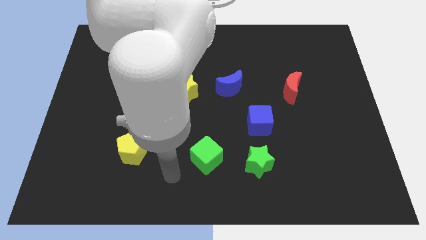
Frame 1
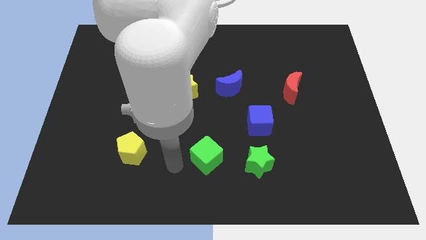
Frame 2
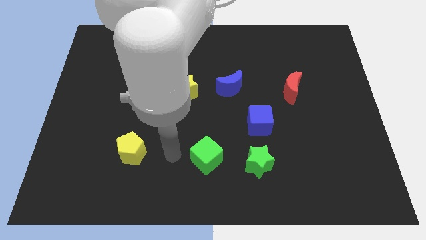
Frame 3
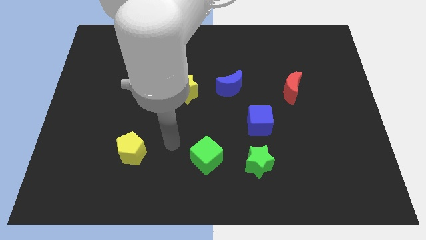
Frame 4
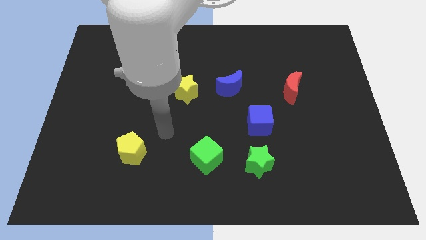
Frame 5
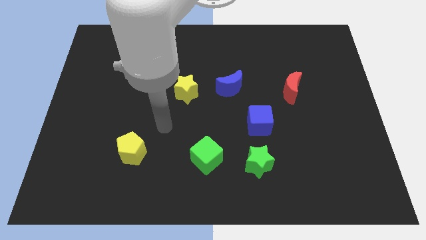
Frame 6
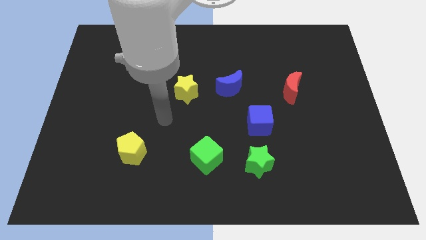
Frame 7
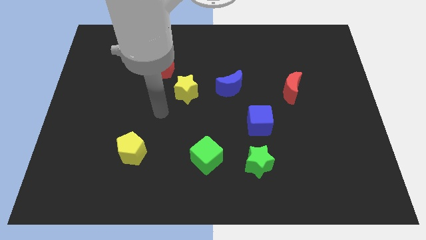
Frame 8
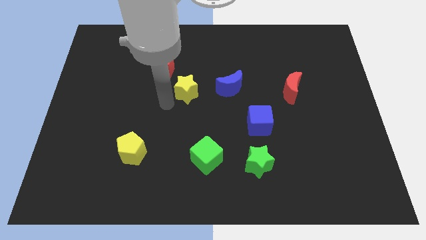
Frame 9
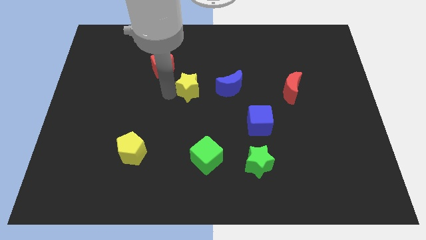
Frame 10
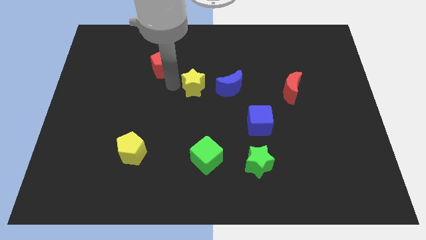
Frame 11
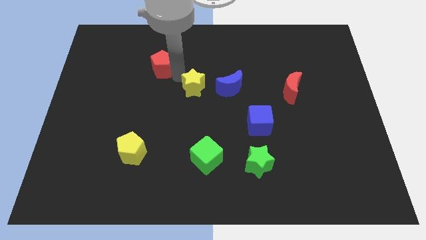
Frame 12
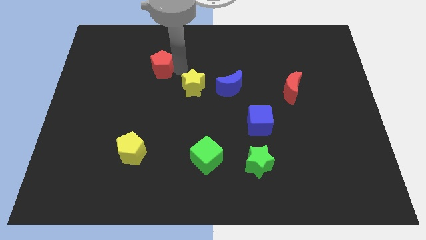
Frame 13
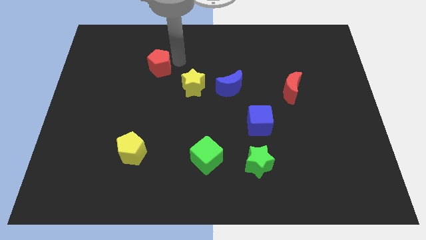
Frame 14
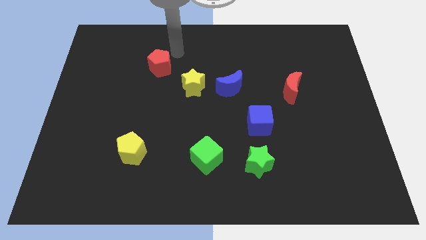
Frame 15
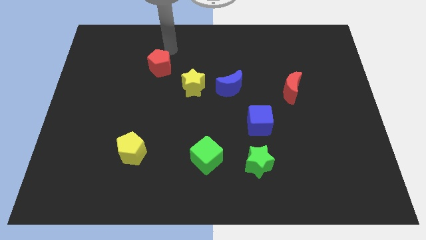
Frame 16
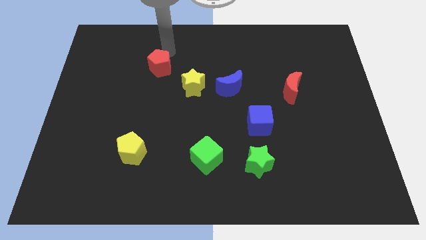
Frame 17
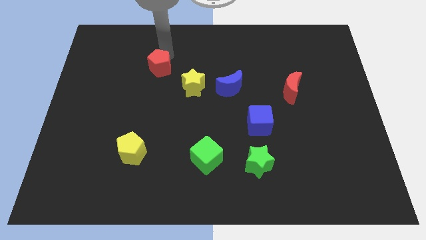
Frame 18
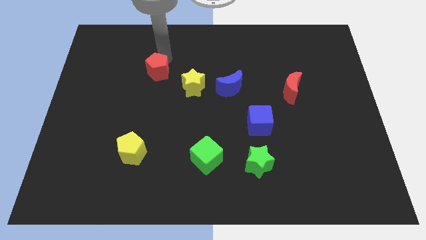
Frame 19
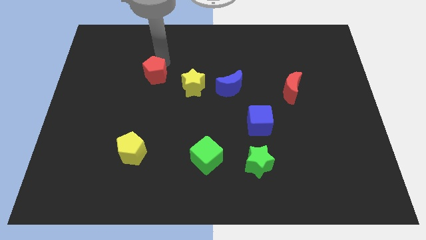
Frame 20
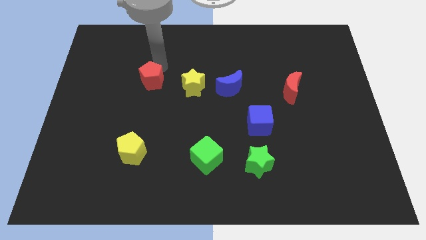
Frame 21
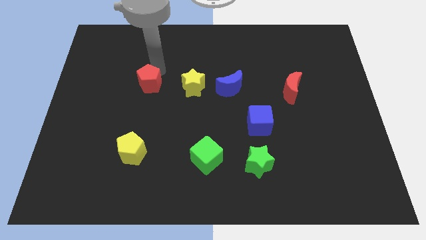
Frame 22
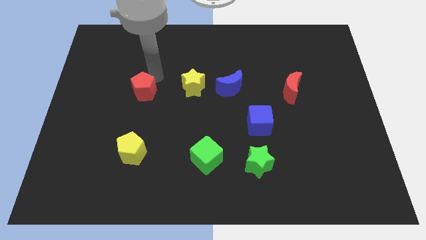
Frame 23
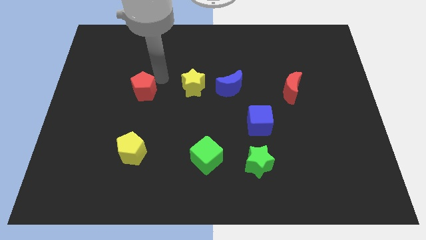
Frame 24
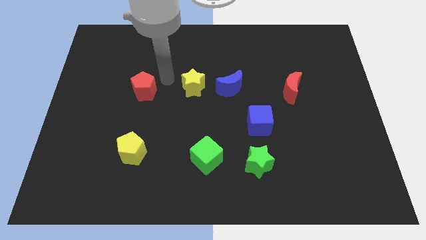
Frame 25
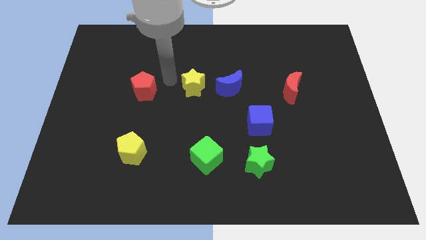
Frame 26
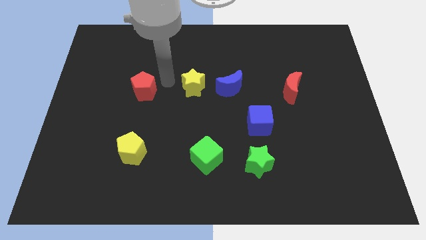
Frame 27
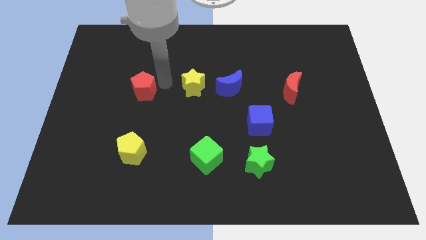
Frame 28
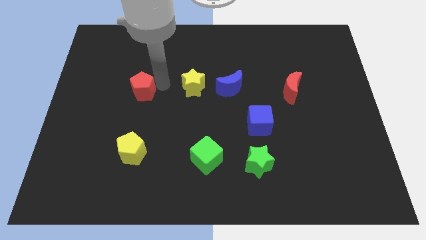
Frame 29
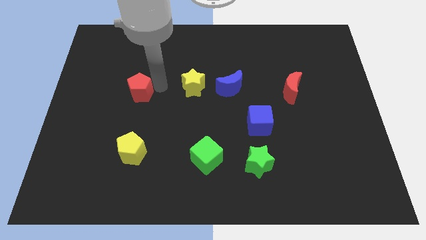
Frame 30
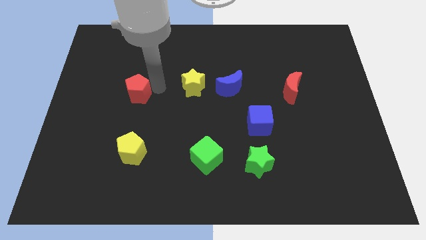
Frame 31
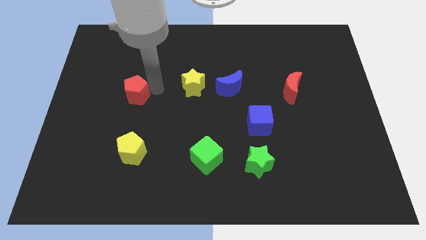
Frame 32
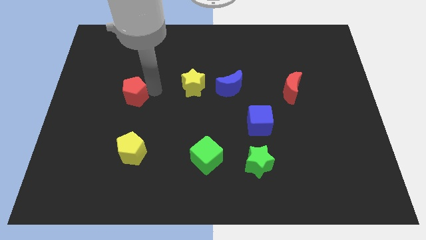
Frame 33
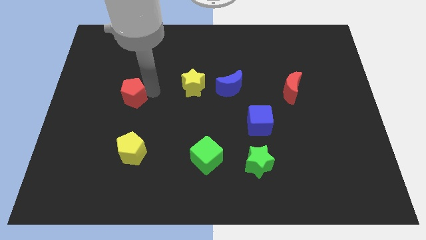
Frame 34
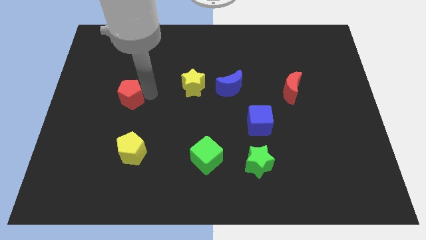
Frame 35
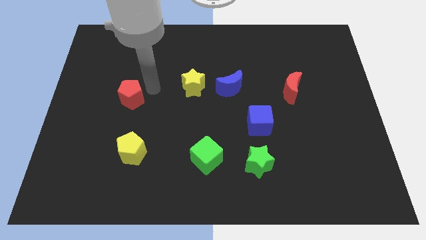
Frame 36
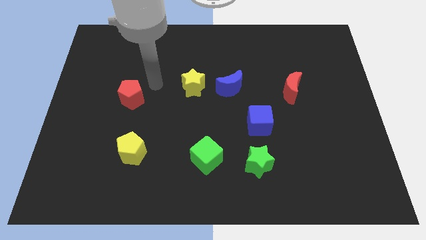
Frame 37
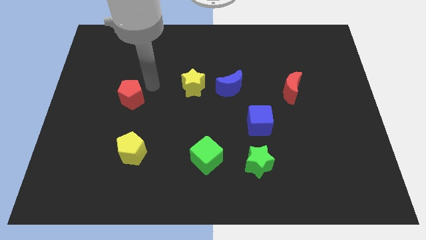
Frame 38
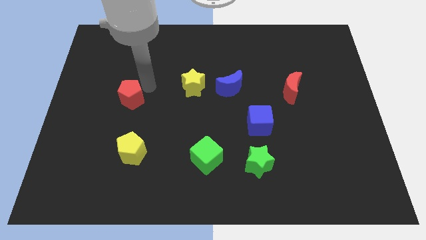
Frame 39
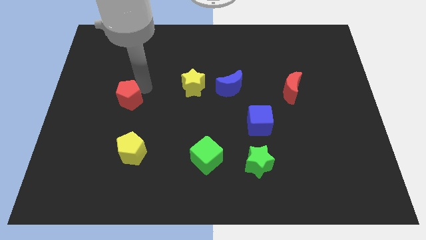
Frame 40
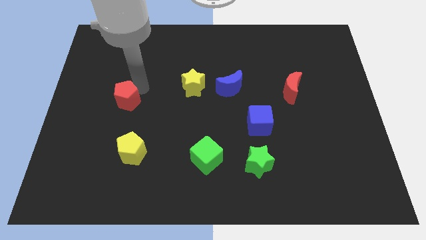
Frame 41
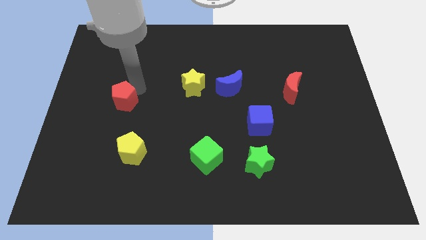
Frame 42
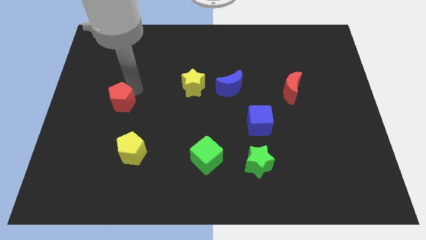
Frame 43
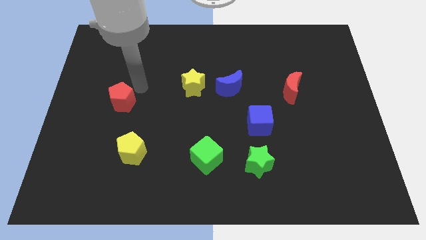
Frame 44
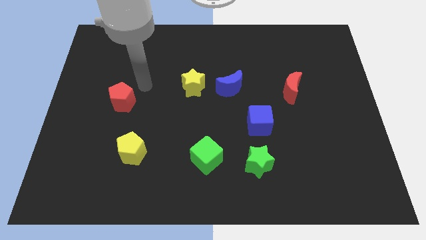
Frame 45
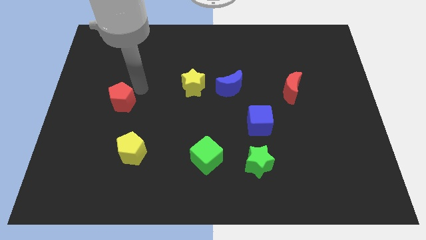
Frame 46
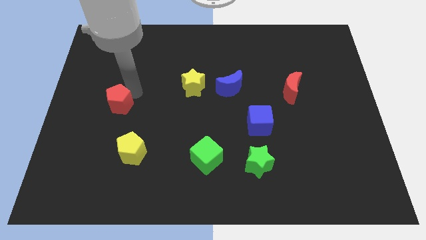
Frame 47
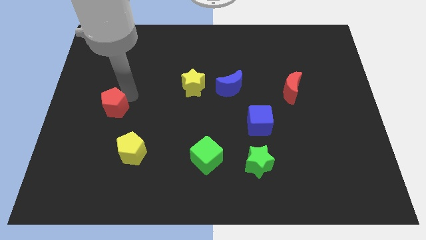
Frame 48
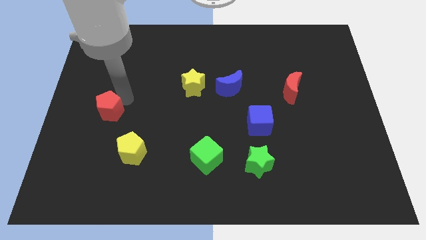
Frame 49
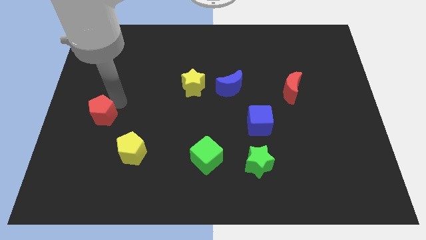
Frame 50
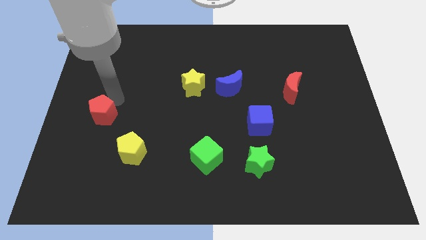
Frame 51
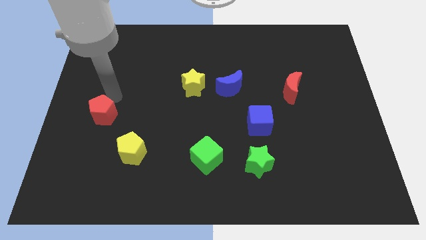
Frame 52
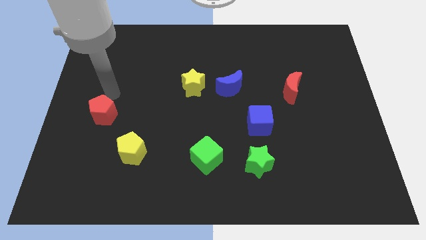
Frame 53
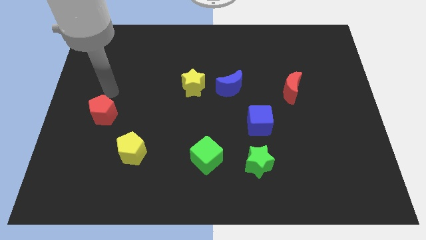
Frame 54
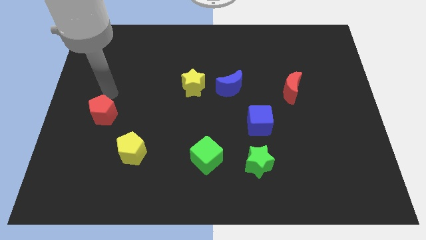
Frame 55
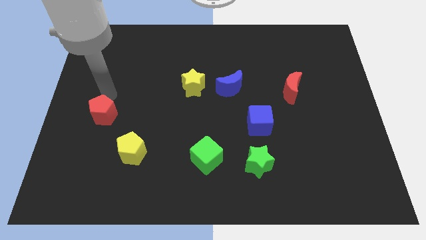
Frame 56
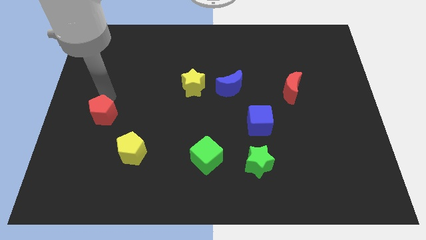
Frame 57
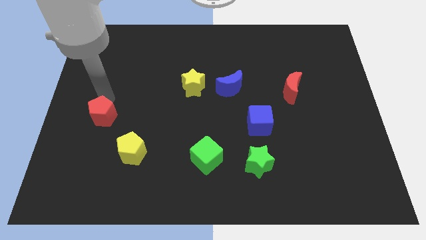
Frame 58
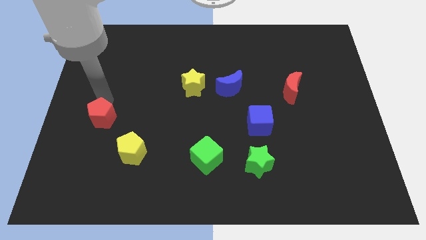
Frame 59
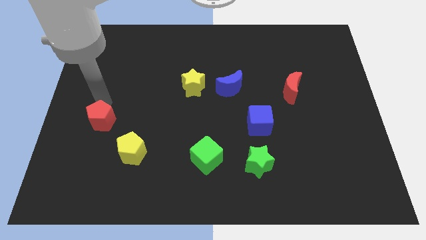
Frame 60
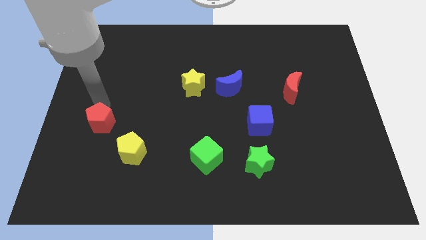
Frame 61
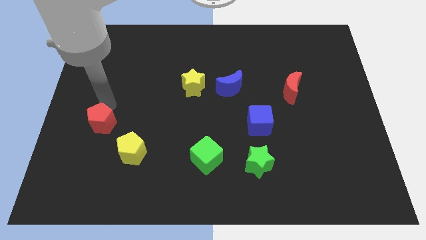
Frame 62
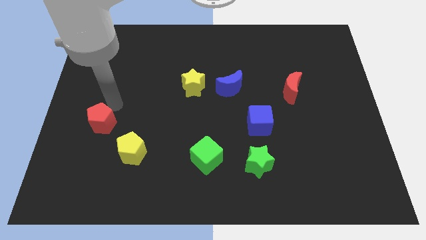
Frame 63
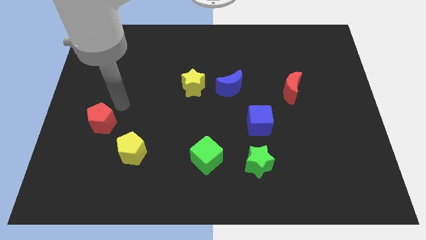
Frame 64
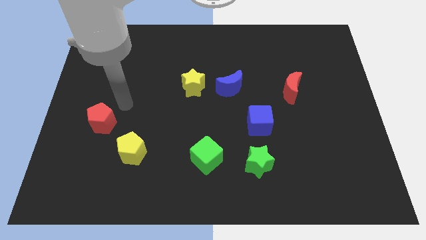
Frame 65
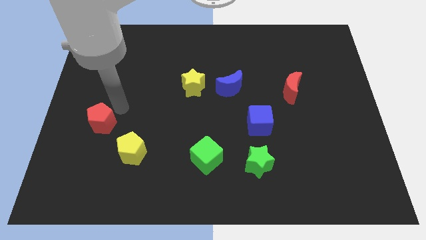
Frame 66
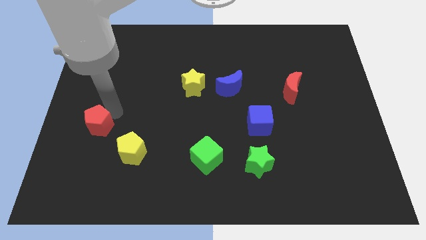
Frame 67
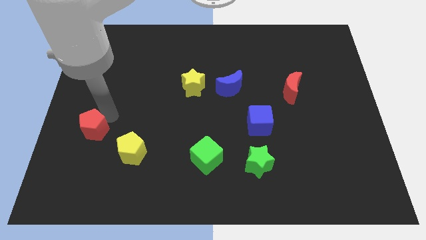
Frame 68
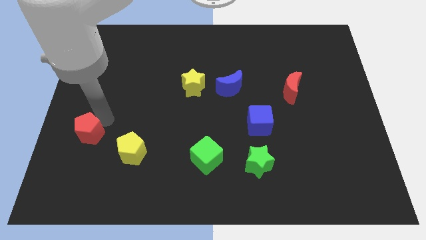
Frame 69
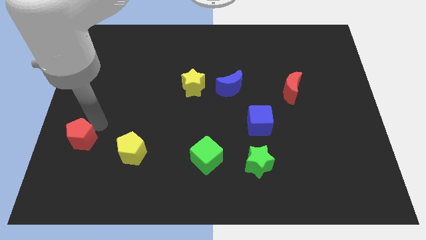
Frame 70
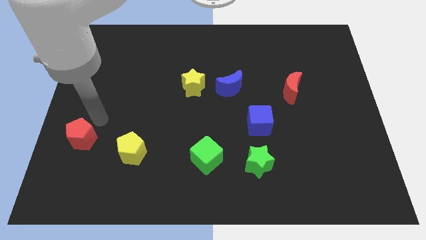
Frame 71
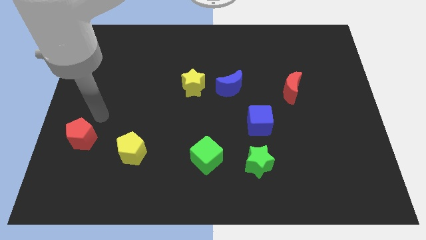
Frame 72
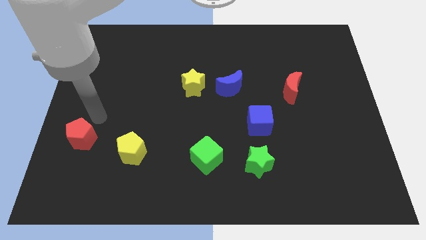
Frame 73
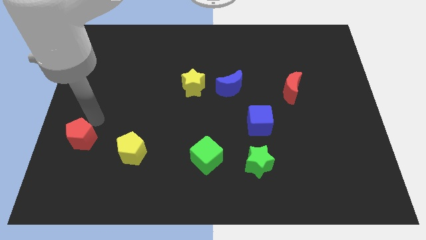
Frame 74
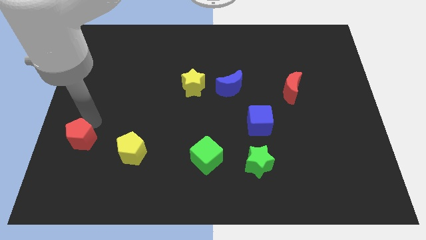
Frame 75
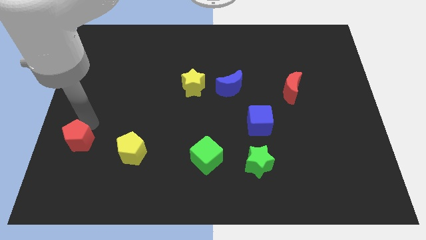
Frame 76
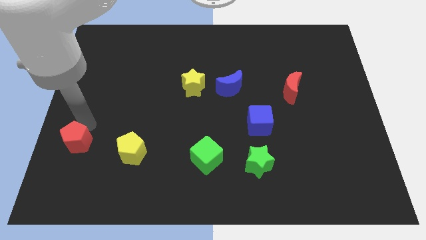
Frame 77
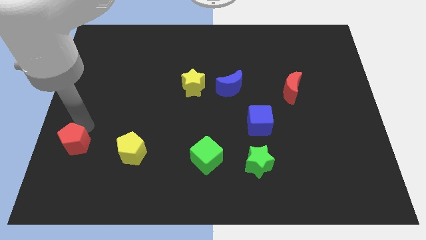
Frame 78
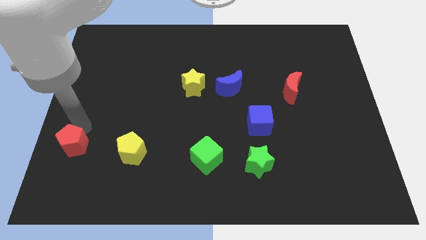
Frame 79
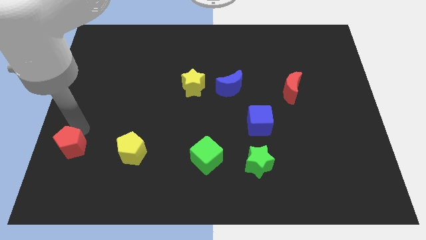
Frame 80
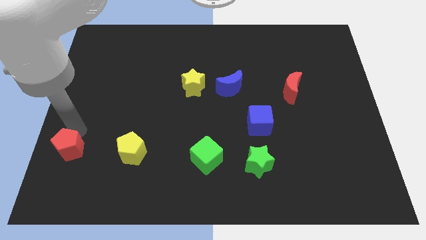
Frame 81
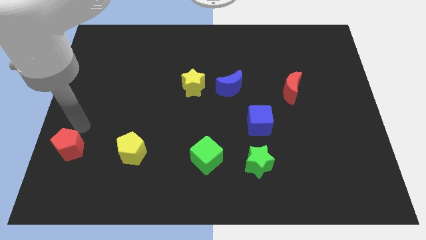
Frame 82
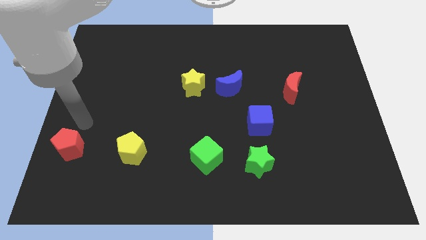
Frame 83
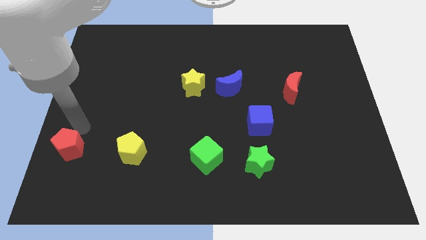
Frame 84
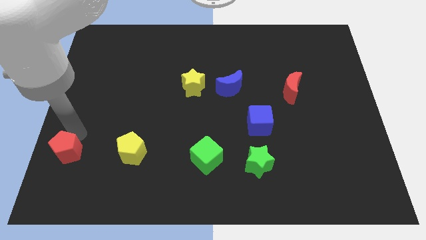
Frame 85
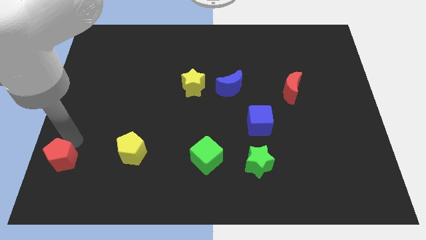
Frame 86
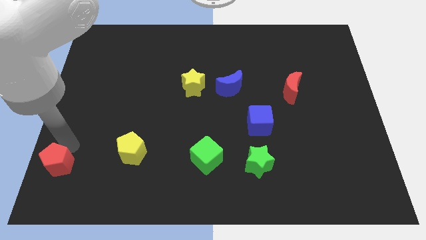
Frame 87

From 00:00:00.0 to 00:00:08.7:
push the red pentagon to the lower left corner
